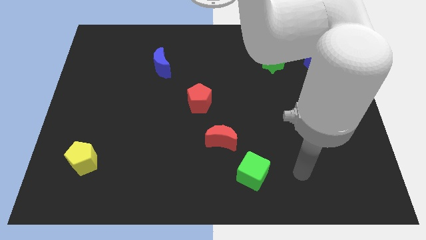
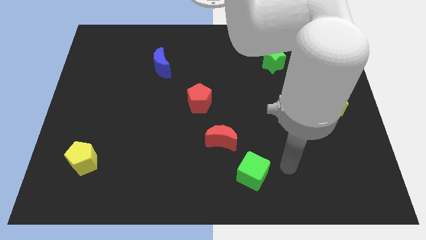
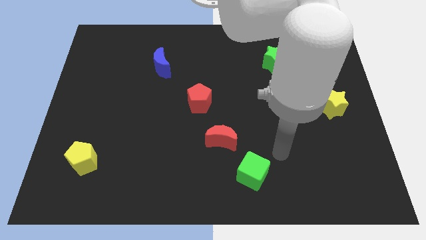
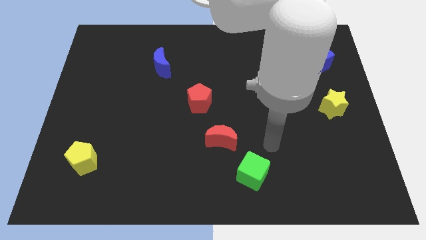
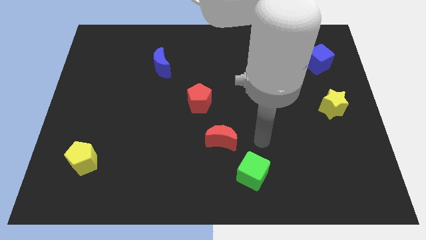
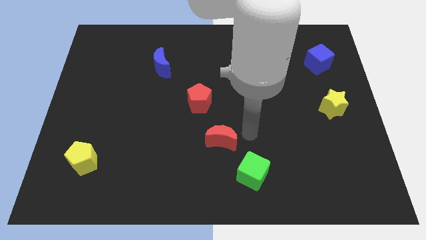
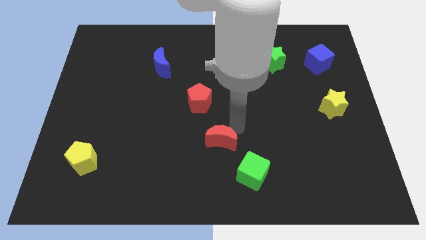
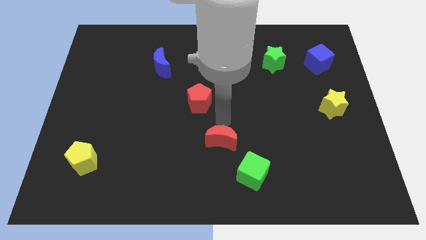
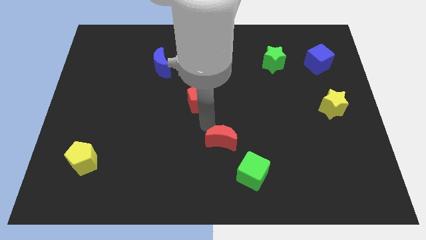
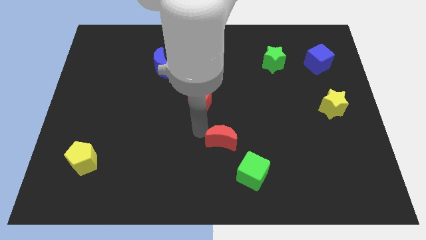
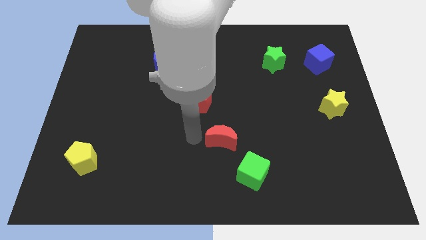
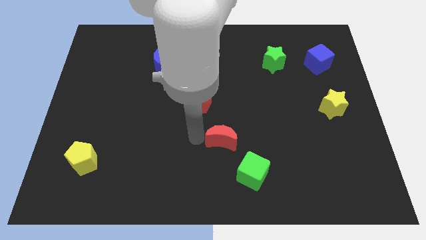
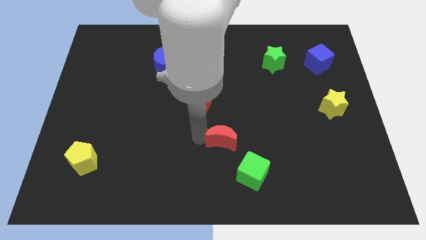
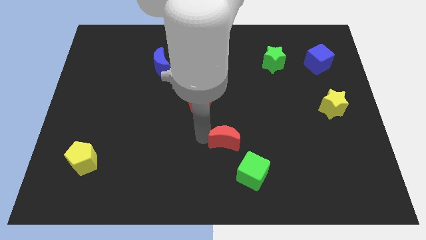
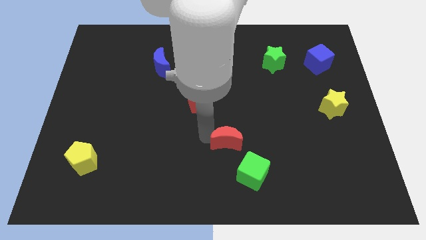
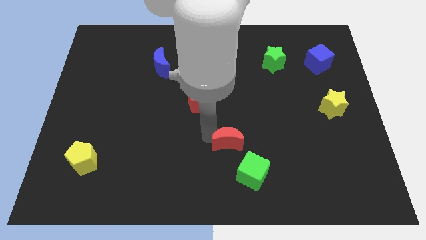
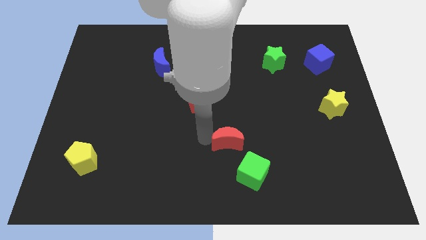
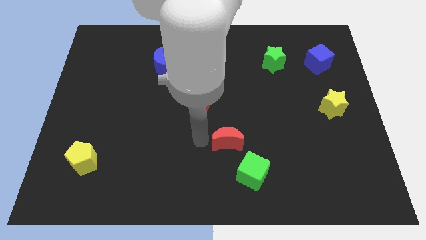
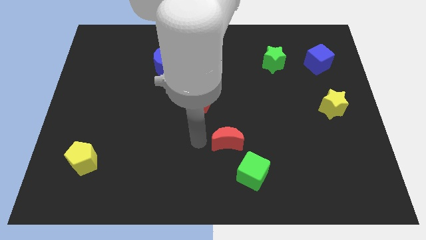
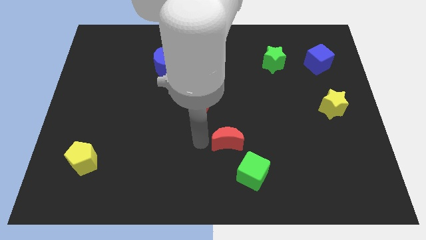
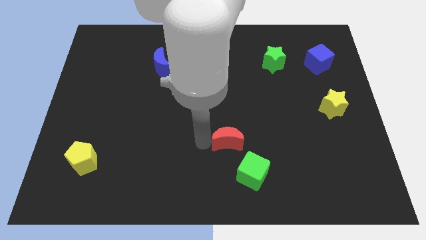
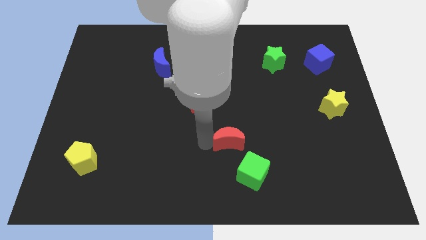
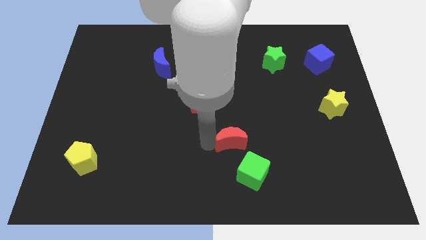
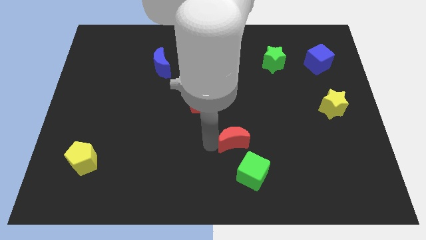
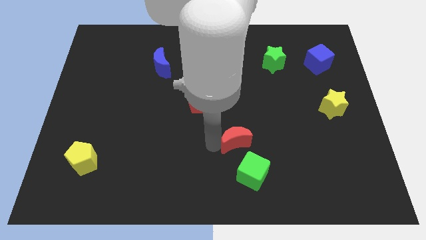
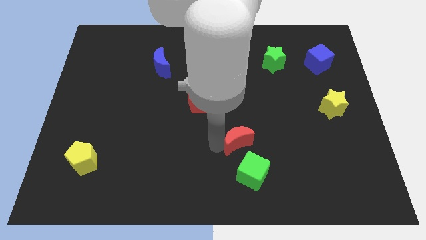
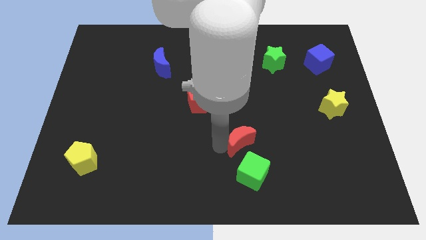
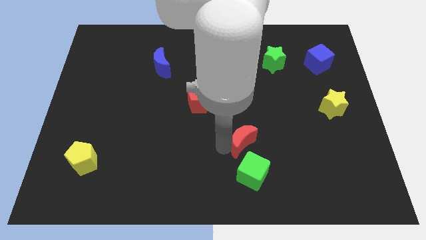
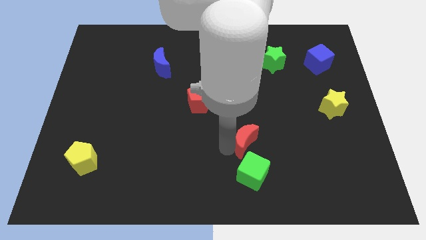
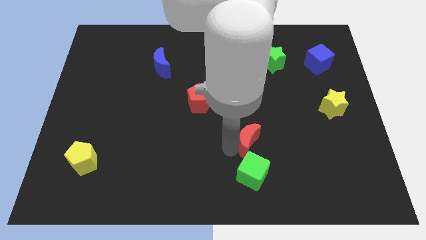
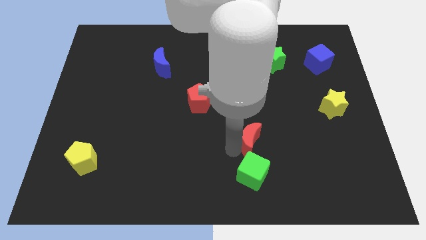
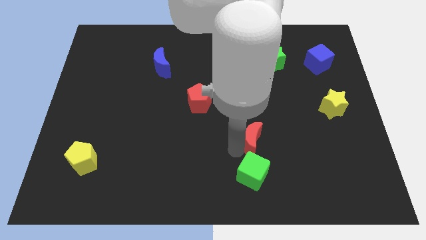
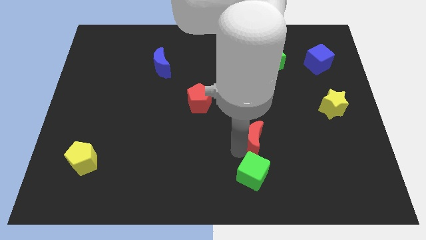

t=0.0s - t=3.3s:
push the red moon right slightly

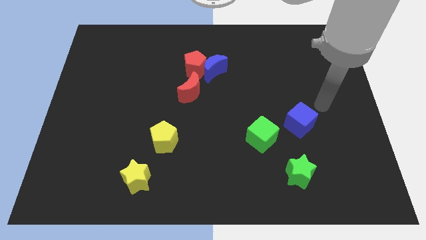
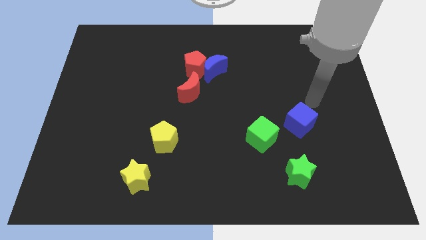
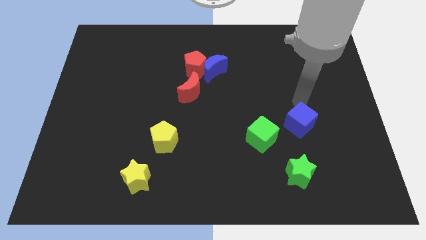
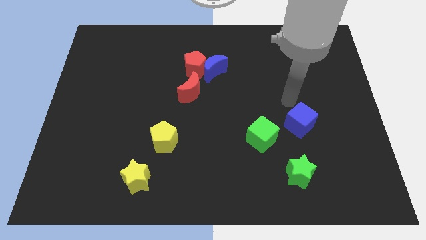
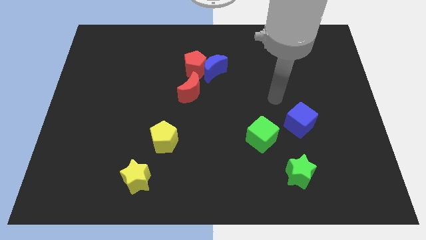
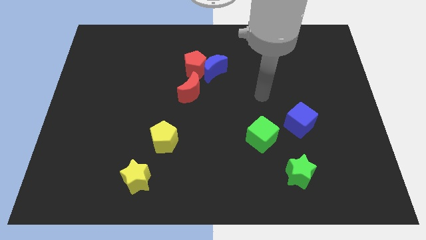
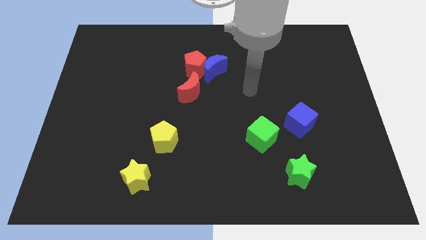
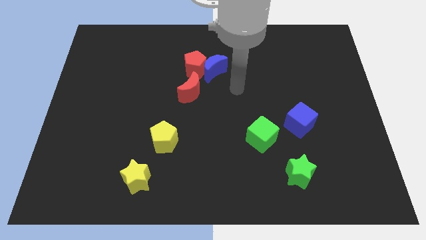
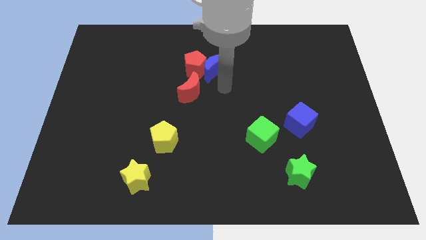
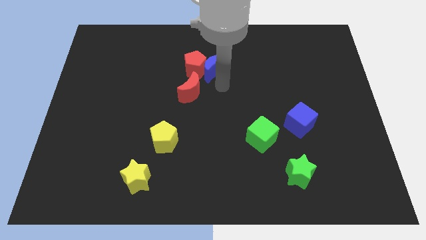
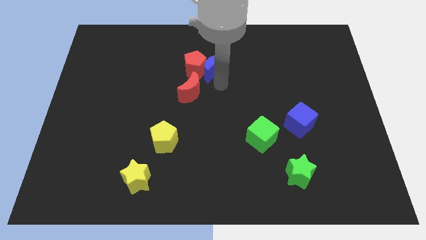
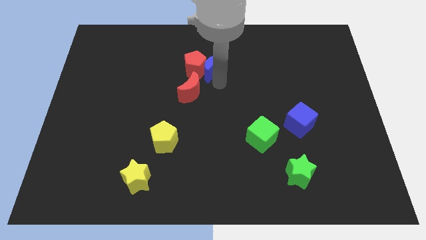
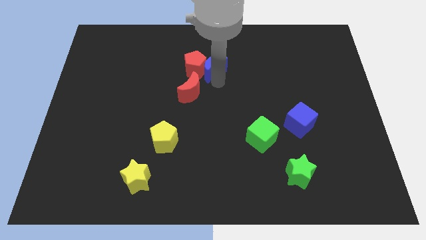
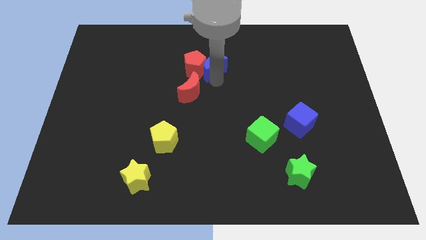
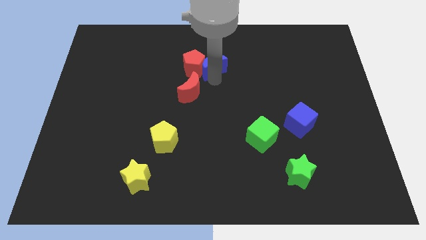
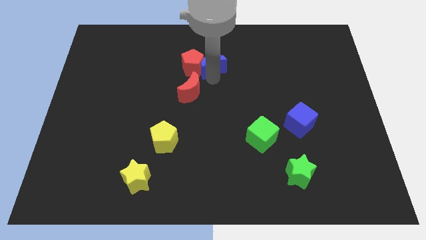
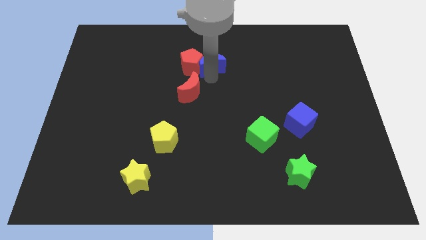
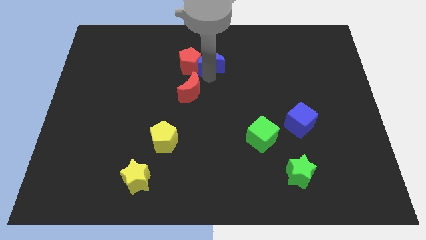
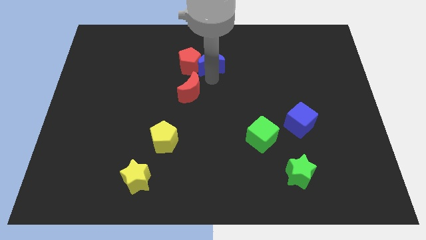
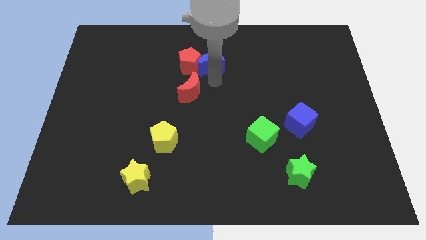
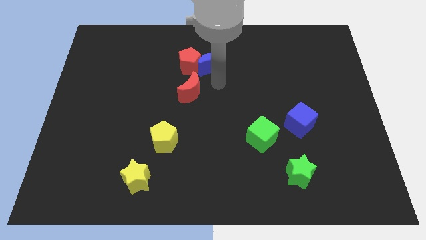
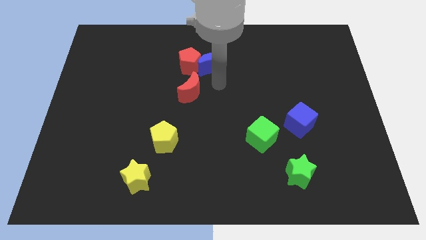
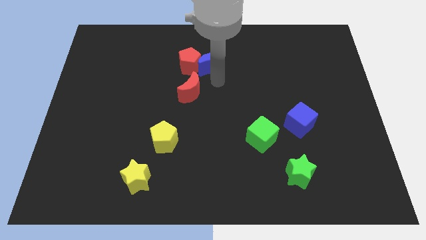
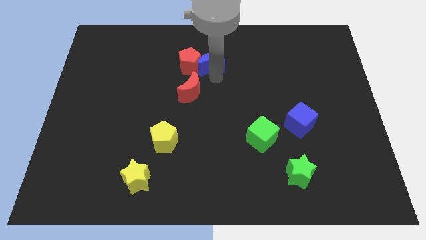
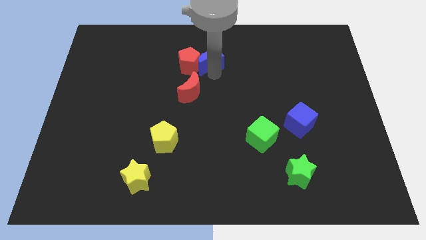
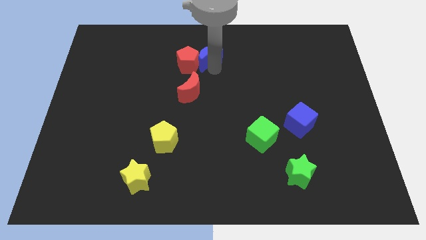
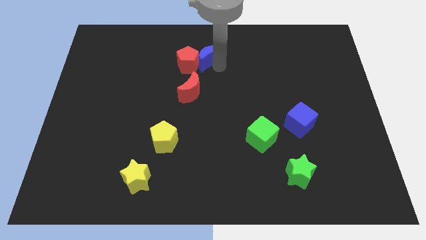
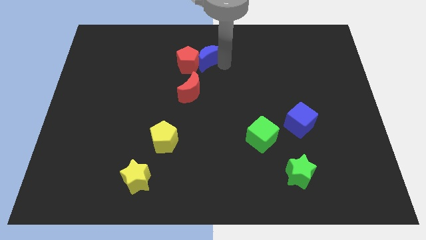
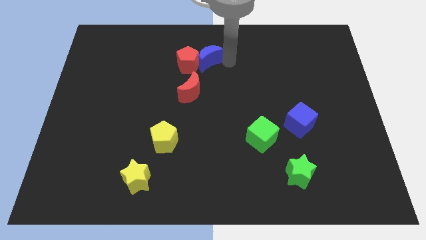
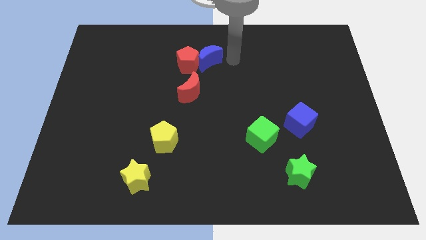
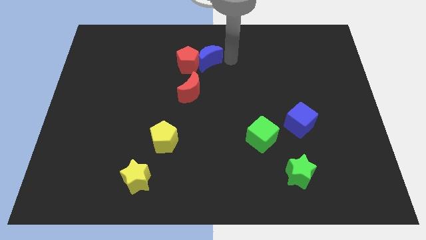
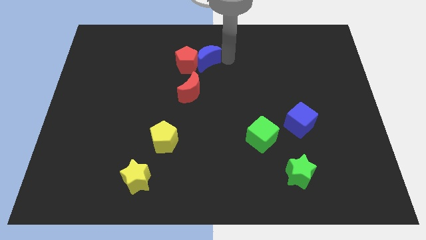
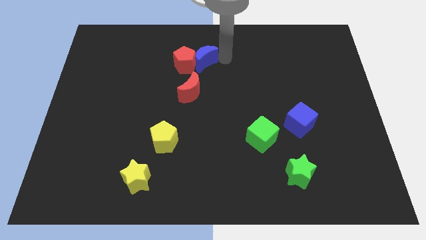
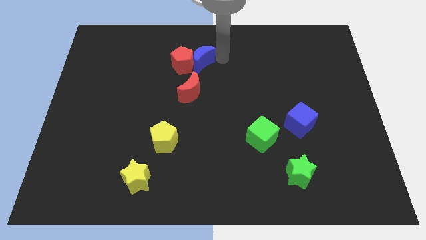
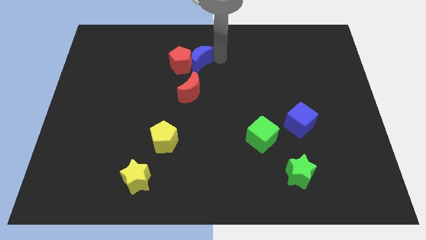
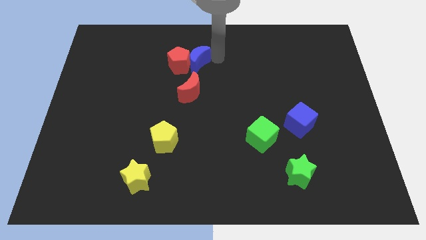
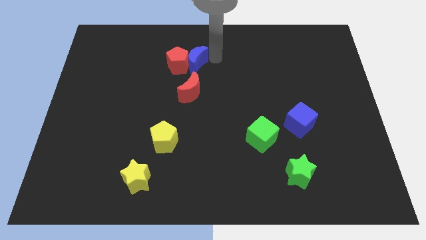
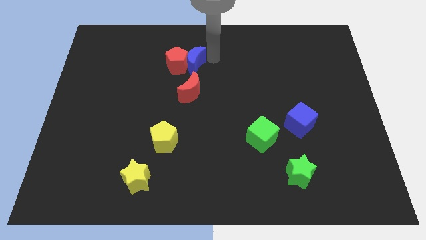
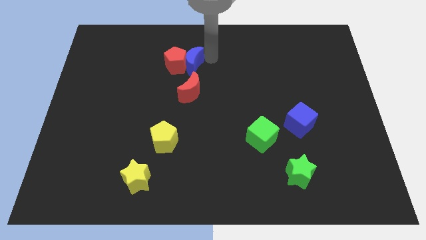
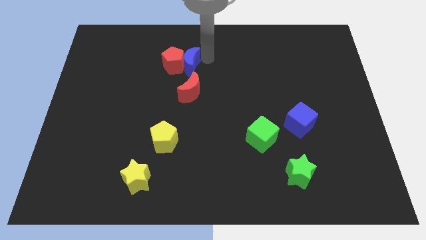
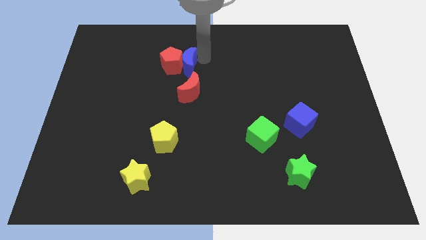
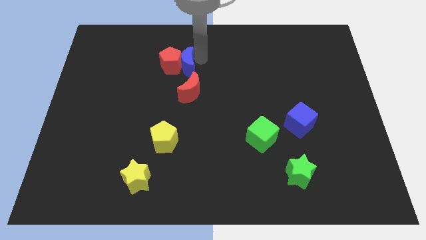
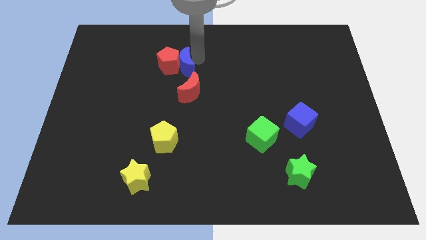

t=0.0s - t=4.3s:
slide the blue moon somewhat to the left

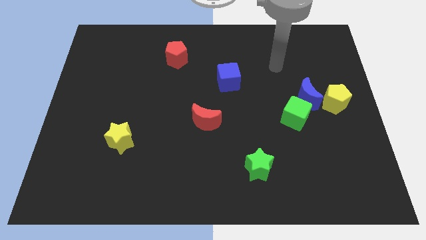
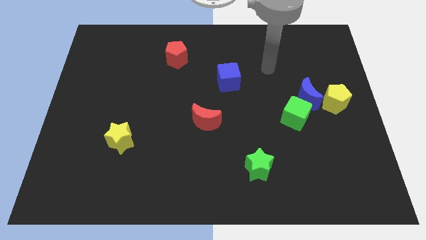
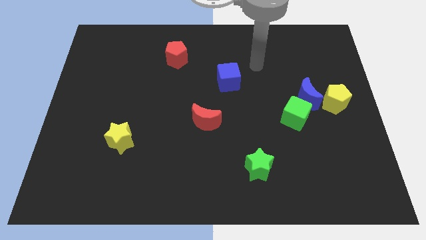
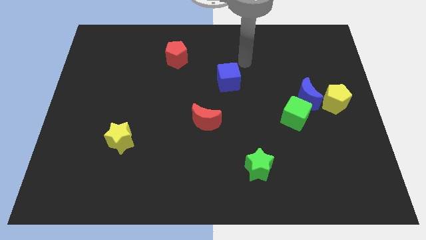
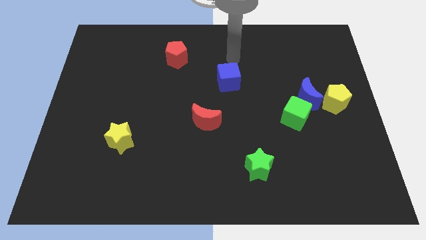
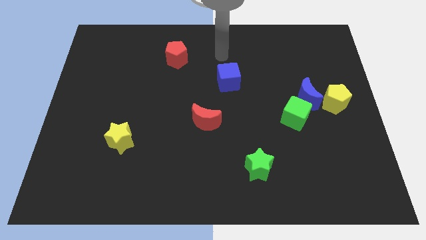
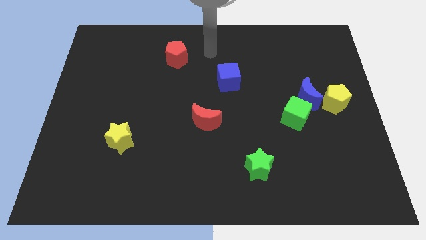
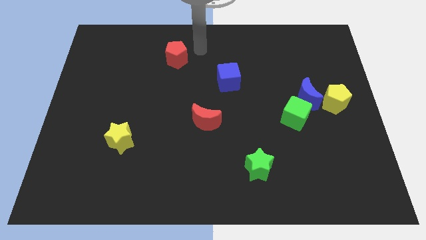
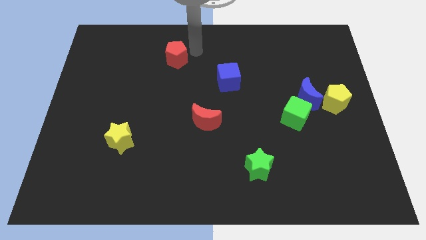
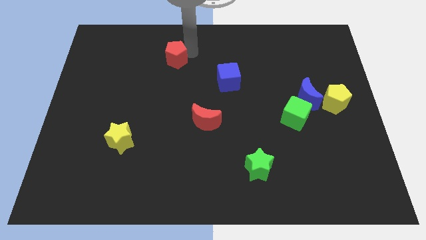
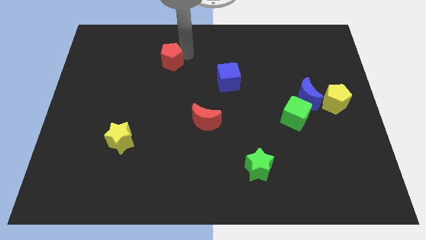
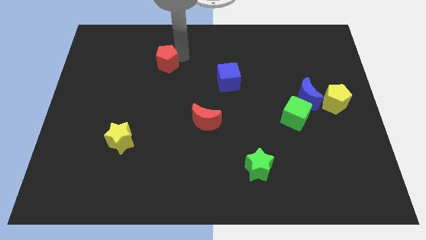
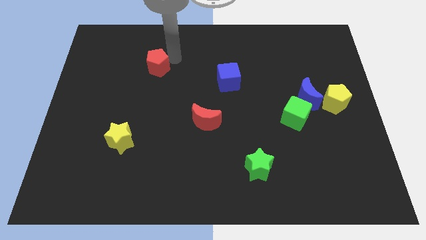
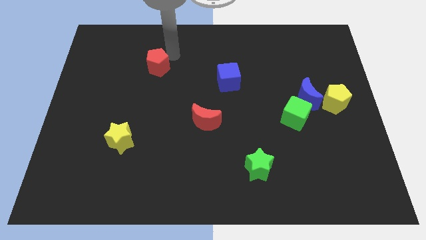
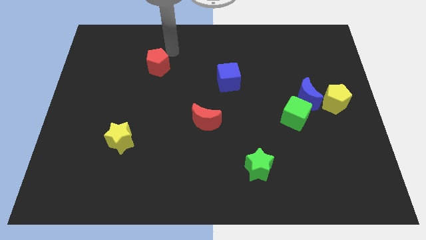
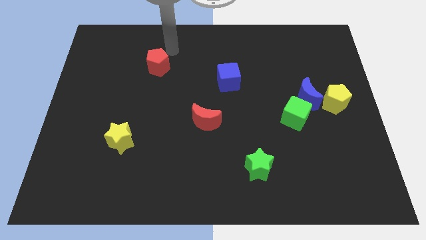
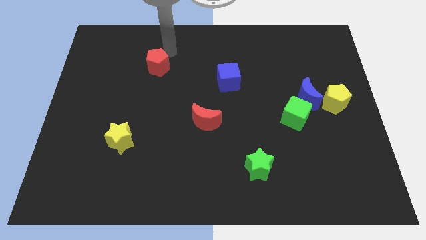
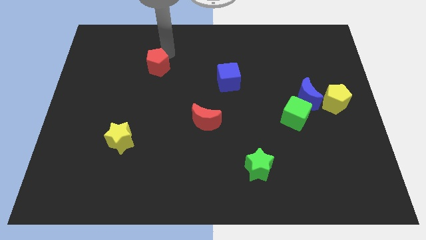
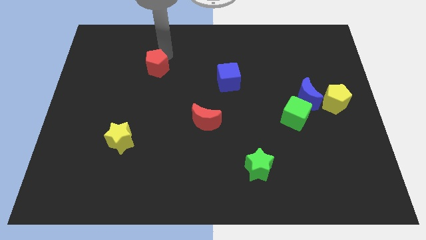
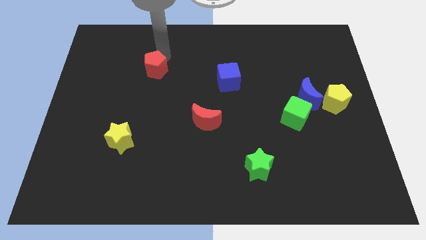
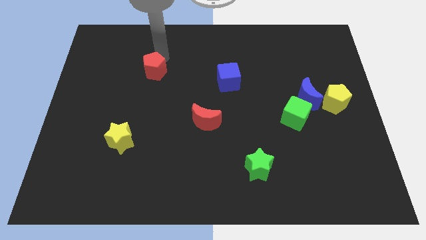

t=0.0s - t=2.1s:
slightly push the red pentagon diagonally downwards and left
